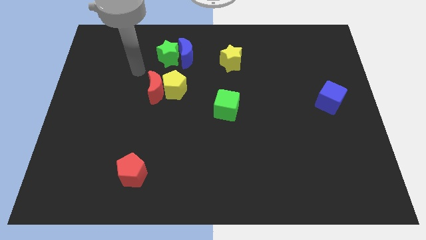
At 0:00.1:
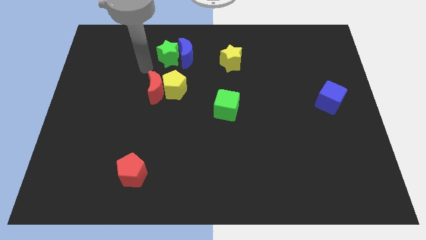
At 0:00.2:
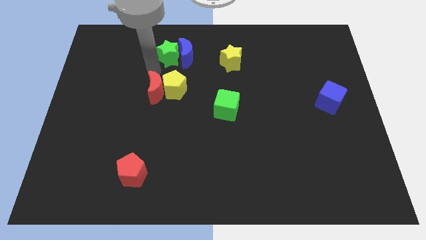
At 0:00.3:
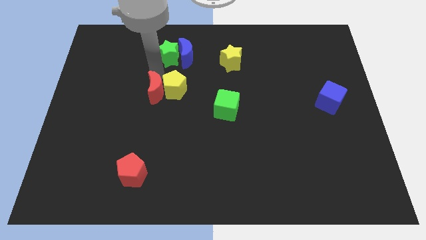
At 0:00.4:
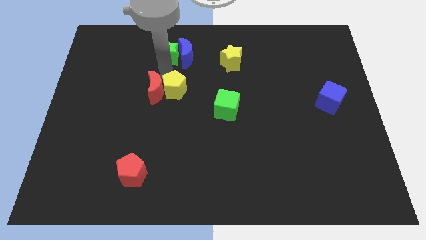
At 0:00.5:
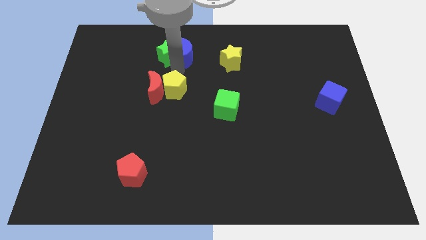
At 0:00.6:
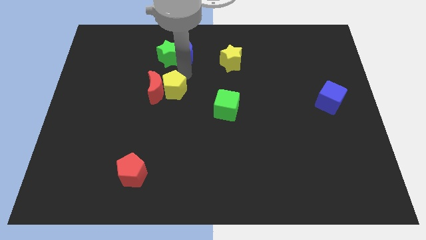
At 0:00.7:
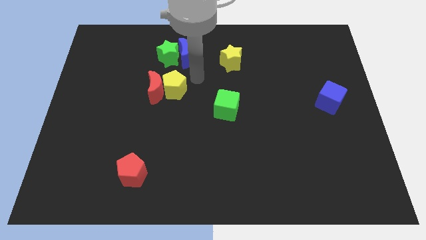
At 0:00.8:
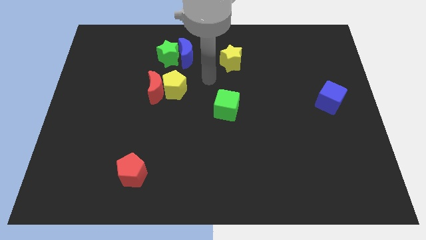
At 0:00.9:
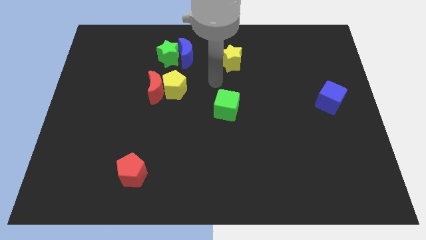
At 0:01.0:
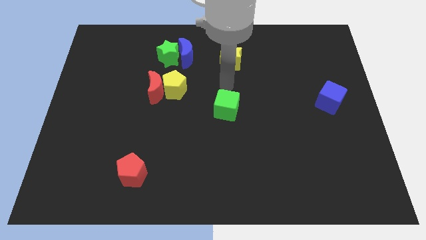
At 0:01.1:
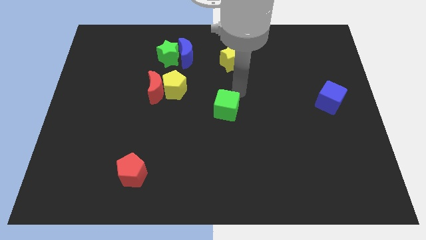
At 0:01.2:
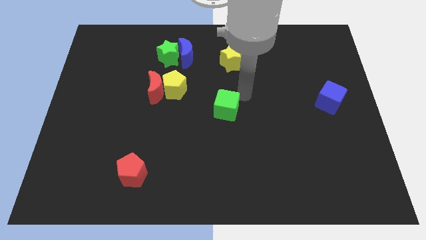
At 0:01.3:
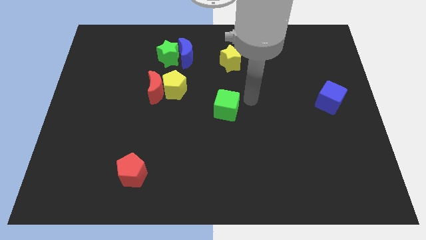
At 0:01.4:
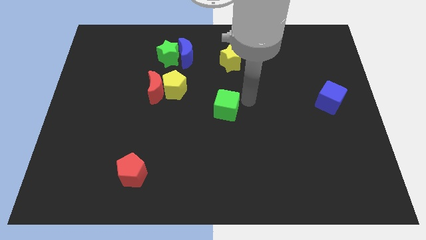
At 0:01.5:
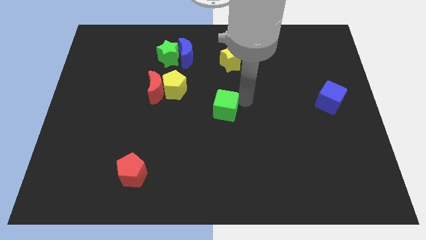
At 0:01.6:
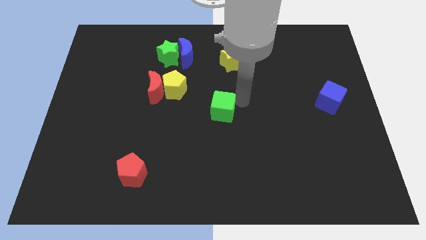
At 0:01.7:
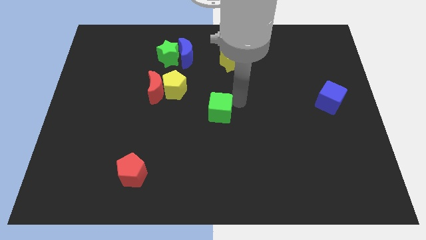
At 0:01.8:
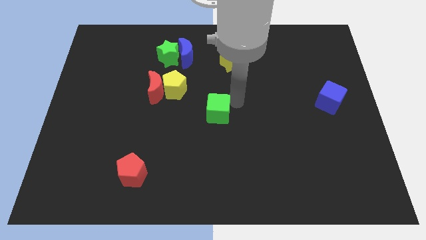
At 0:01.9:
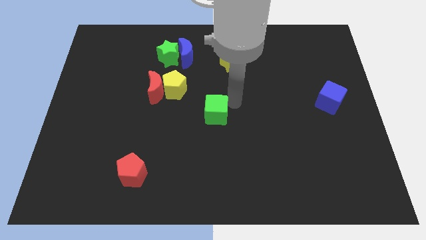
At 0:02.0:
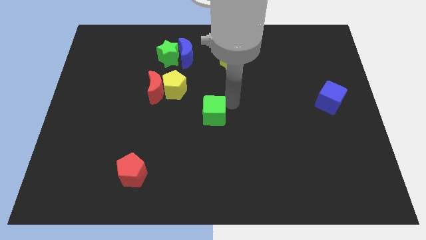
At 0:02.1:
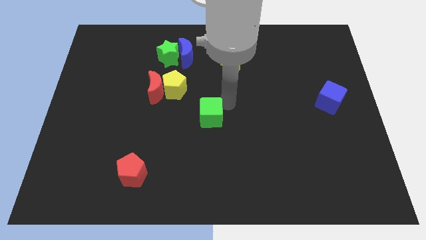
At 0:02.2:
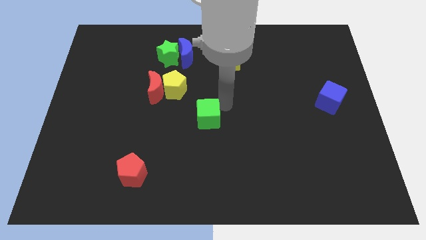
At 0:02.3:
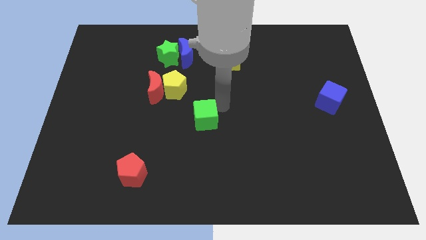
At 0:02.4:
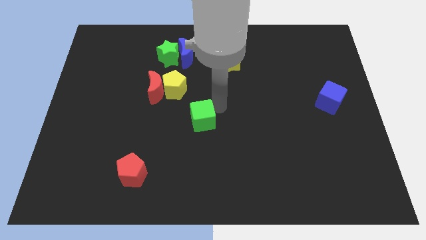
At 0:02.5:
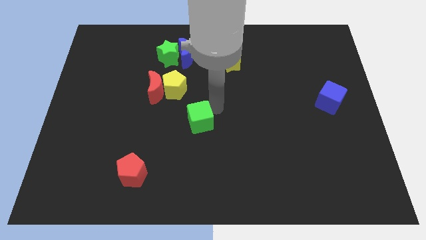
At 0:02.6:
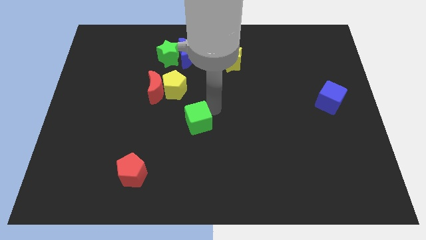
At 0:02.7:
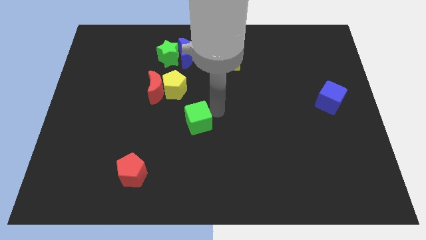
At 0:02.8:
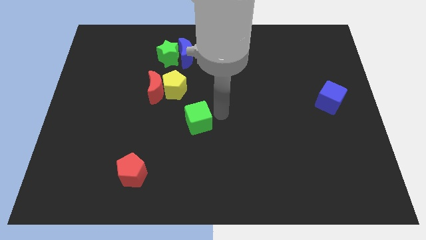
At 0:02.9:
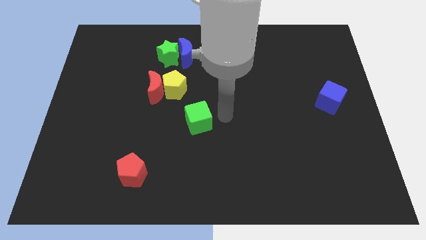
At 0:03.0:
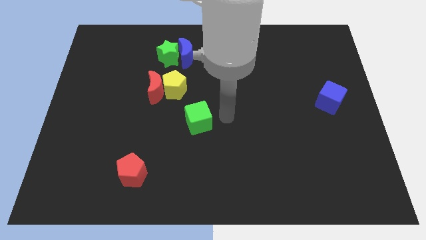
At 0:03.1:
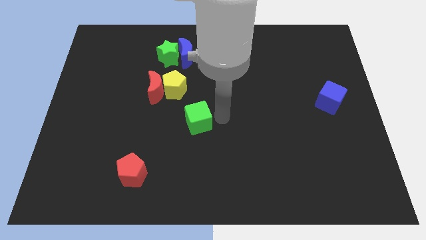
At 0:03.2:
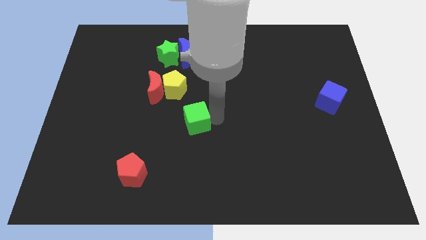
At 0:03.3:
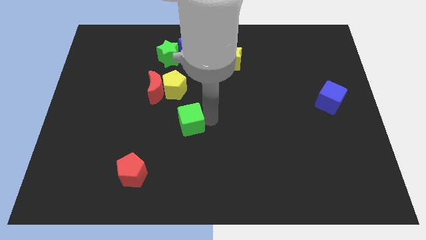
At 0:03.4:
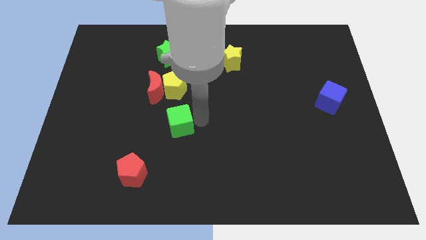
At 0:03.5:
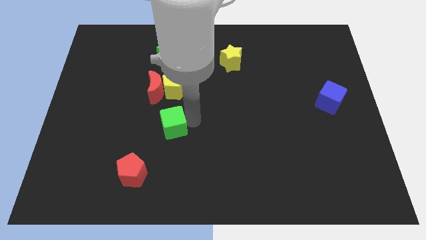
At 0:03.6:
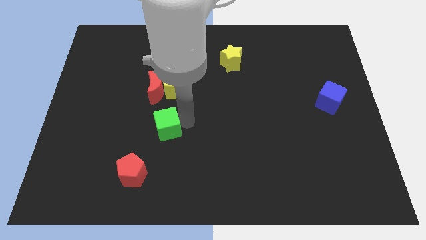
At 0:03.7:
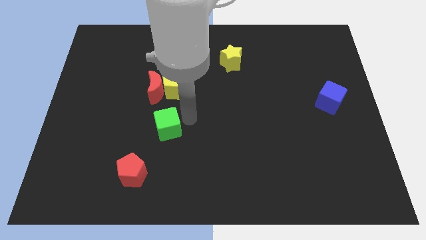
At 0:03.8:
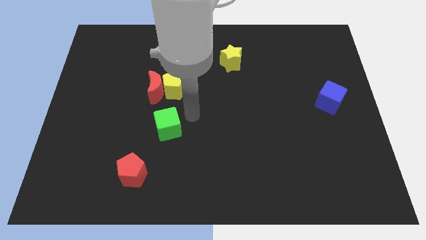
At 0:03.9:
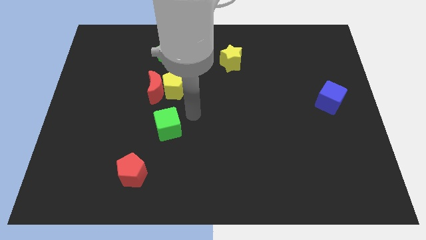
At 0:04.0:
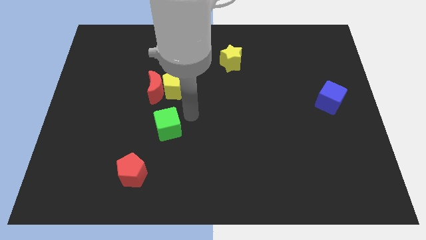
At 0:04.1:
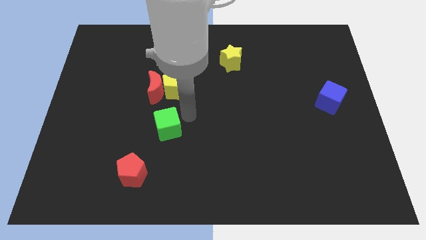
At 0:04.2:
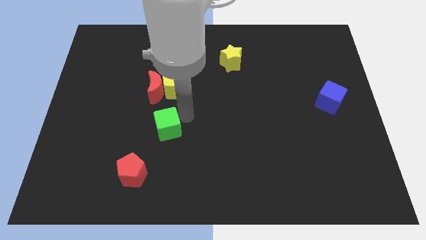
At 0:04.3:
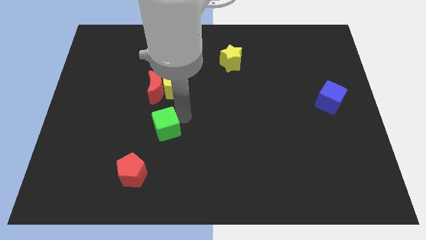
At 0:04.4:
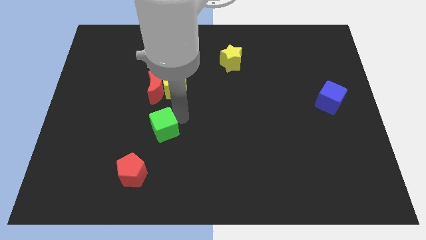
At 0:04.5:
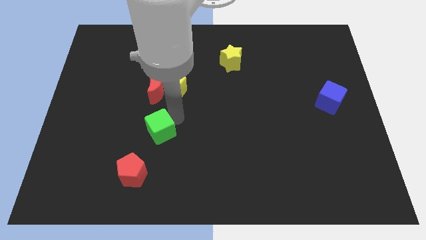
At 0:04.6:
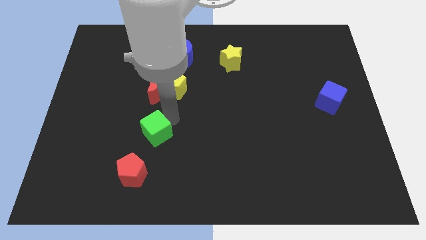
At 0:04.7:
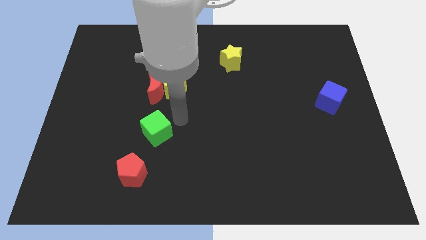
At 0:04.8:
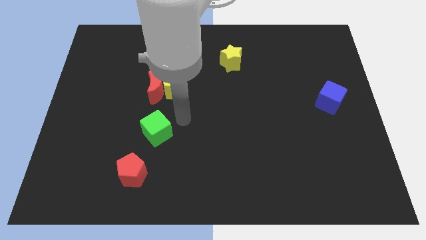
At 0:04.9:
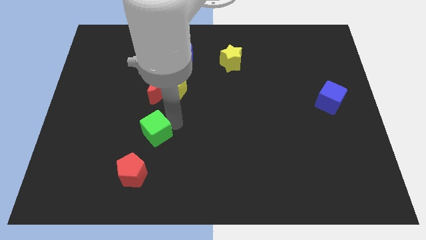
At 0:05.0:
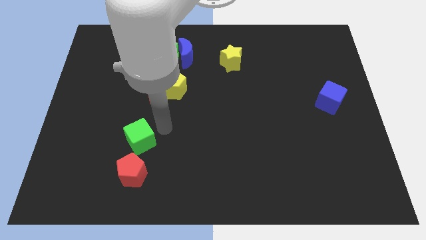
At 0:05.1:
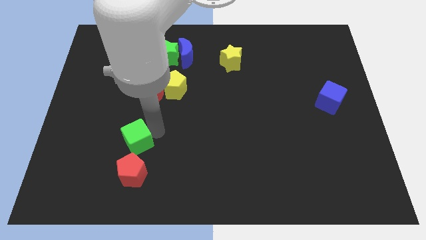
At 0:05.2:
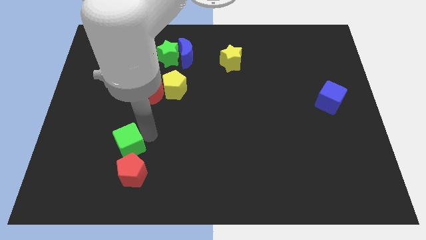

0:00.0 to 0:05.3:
push the green cube to the top left side of the red pentagon

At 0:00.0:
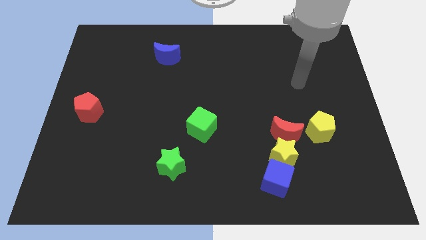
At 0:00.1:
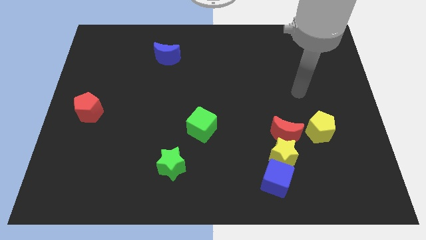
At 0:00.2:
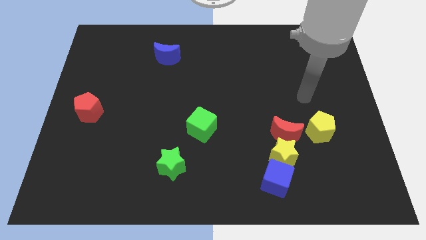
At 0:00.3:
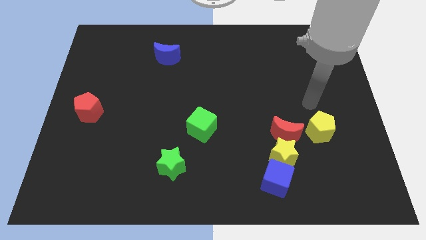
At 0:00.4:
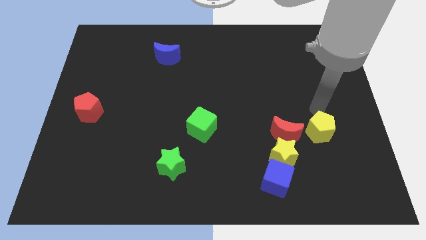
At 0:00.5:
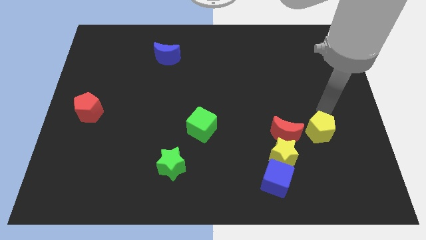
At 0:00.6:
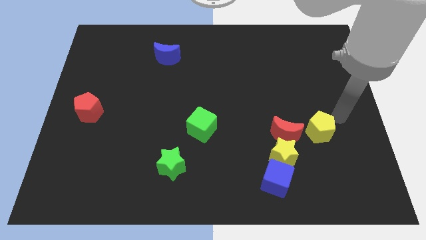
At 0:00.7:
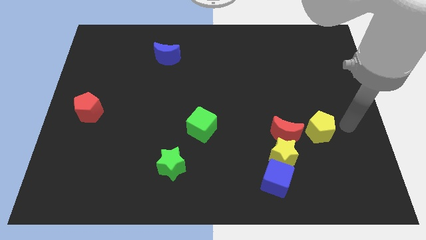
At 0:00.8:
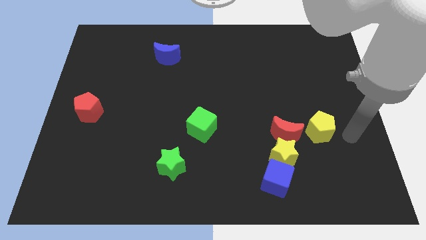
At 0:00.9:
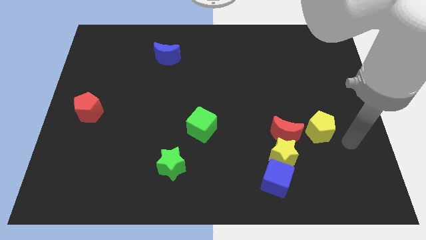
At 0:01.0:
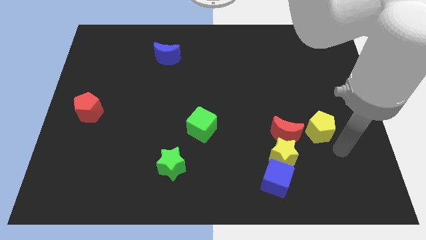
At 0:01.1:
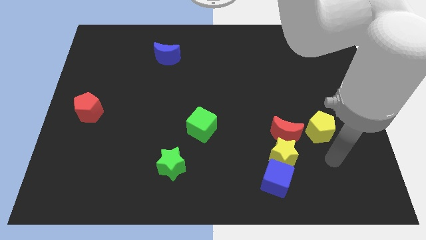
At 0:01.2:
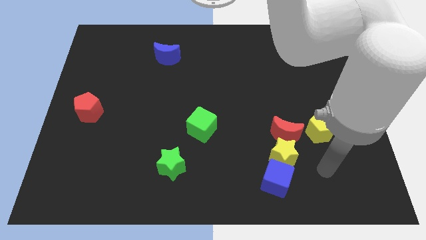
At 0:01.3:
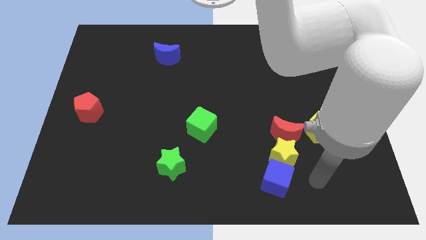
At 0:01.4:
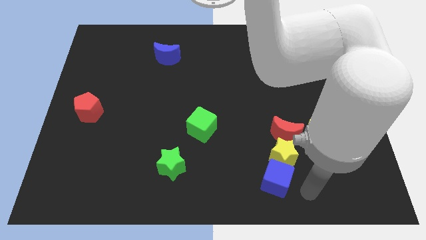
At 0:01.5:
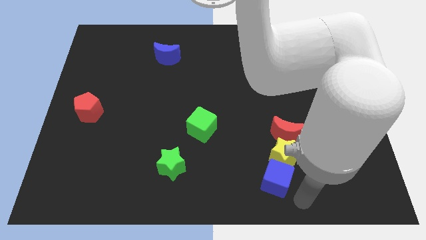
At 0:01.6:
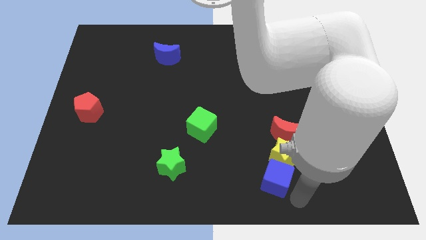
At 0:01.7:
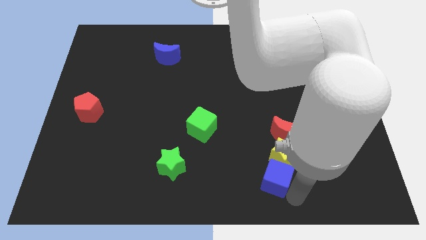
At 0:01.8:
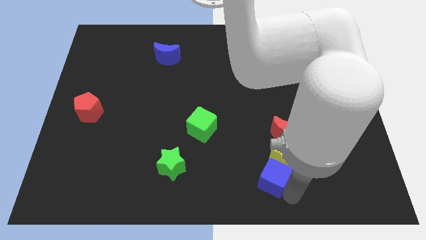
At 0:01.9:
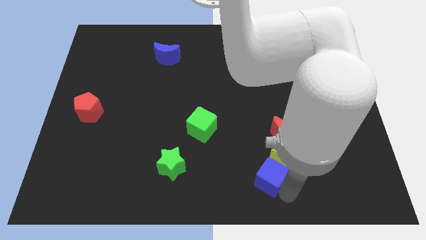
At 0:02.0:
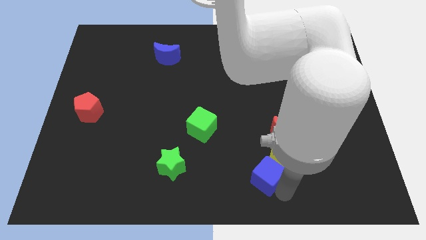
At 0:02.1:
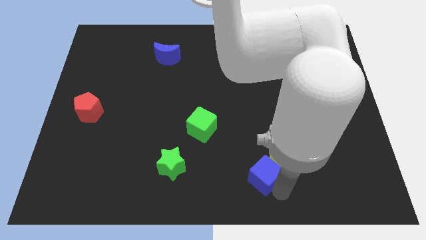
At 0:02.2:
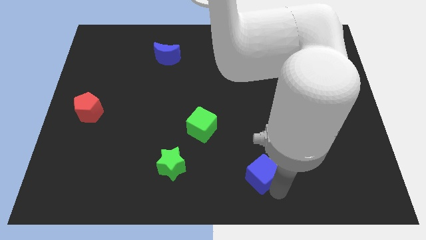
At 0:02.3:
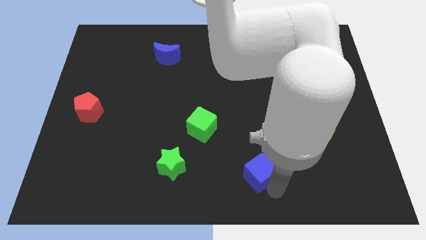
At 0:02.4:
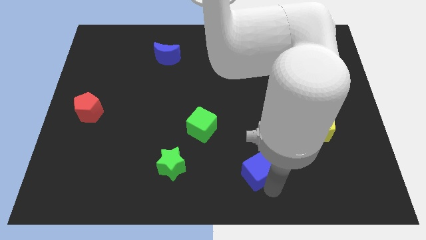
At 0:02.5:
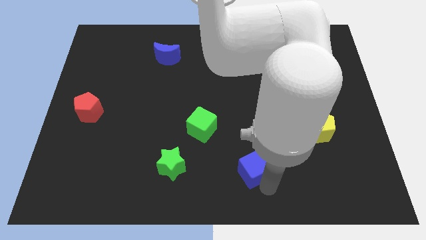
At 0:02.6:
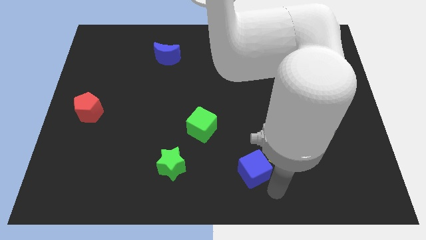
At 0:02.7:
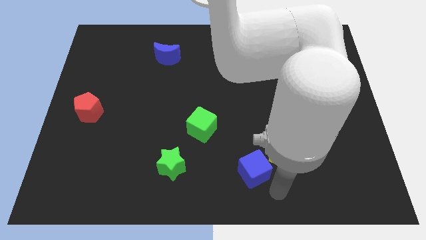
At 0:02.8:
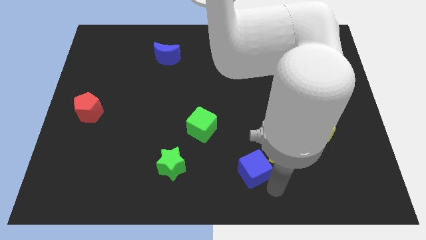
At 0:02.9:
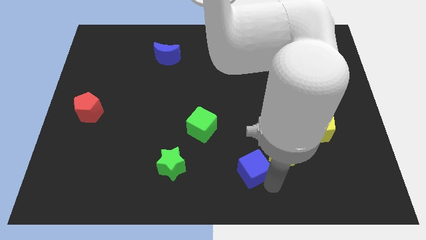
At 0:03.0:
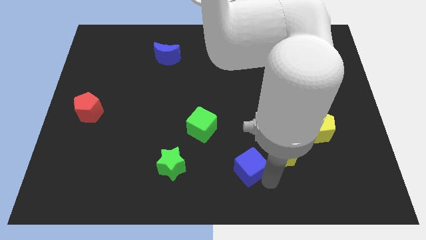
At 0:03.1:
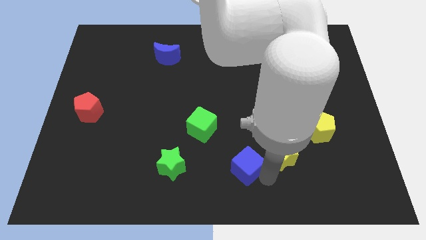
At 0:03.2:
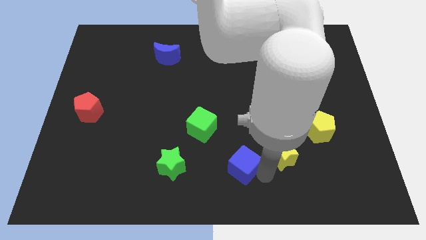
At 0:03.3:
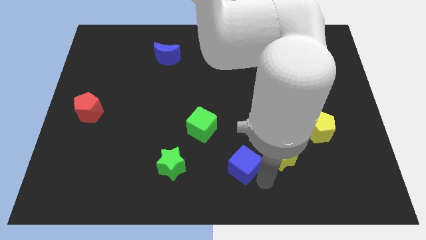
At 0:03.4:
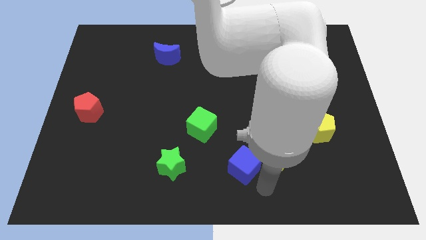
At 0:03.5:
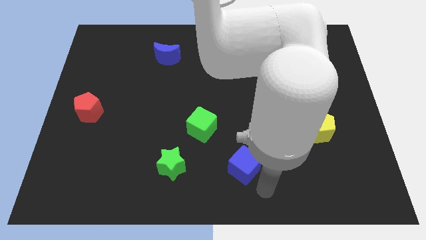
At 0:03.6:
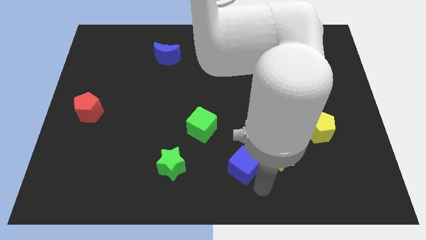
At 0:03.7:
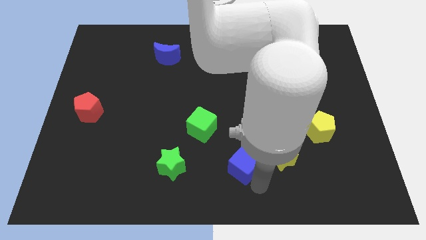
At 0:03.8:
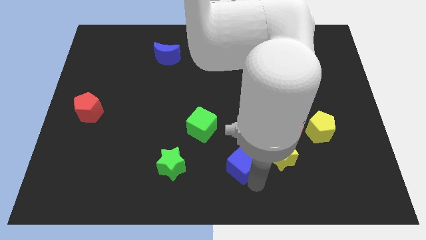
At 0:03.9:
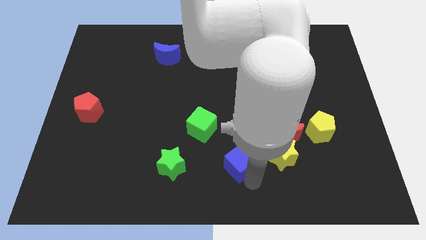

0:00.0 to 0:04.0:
put the blue cube diagonally down and to the right of the green cube
